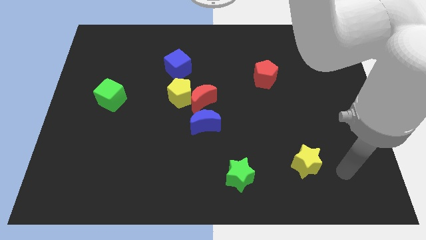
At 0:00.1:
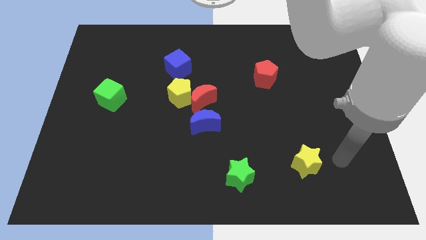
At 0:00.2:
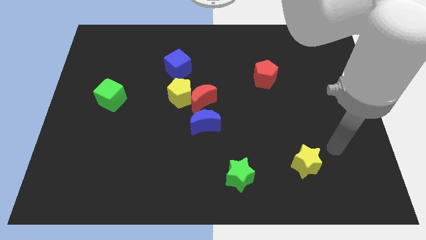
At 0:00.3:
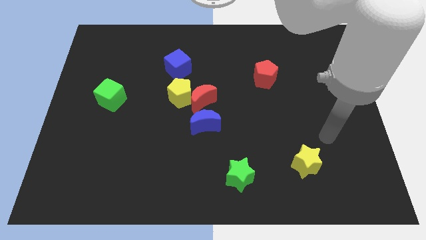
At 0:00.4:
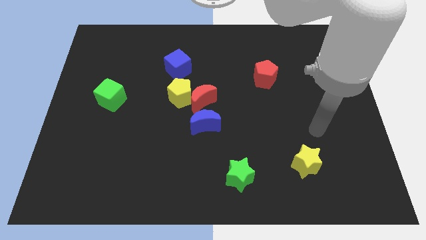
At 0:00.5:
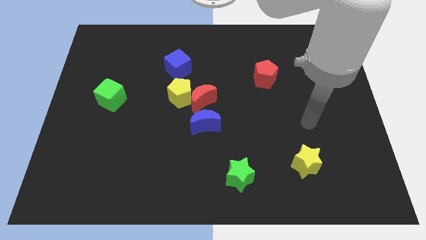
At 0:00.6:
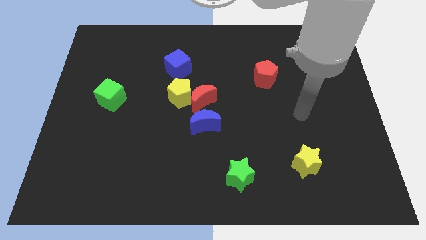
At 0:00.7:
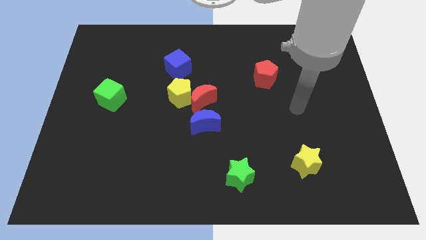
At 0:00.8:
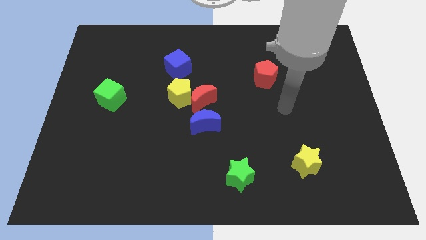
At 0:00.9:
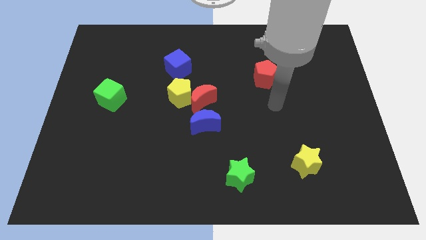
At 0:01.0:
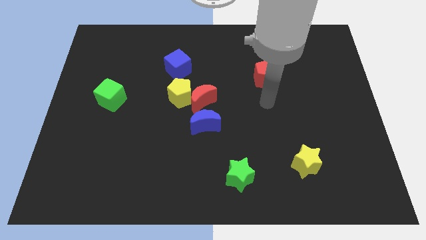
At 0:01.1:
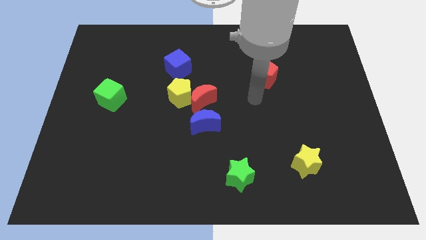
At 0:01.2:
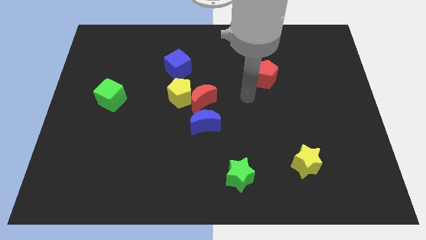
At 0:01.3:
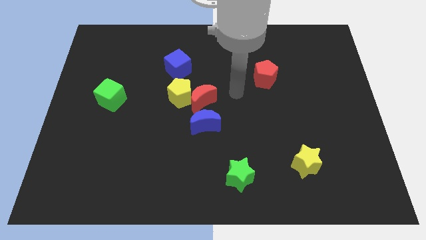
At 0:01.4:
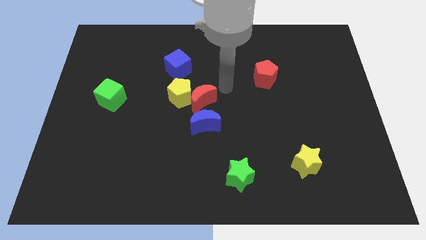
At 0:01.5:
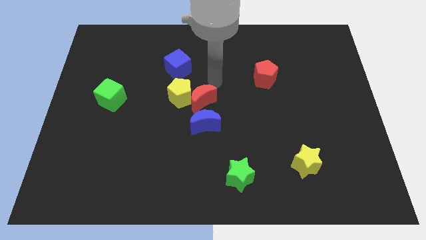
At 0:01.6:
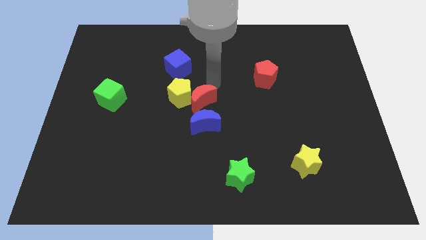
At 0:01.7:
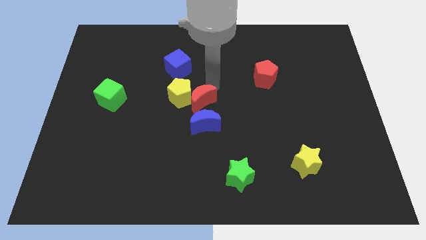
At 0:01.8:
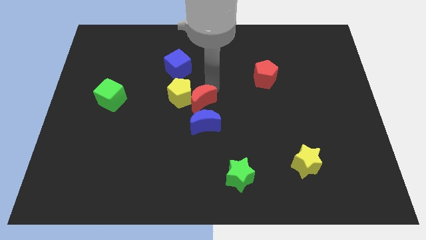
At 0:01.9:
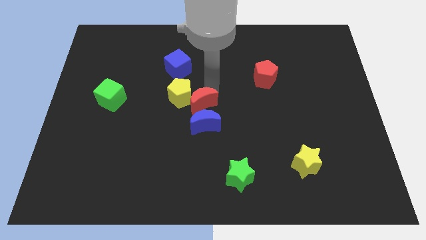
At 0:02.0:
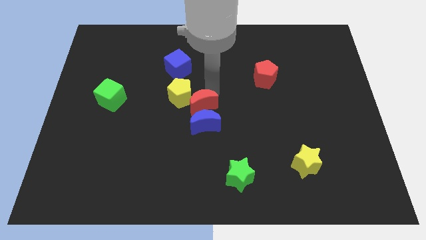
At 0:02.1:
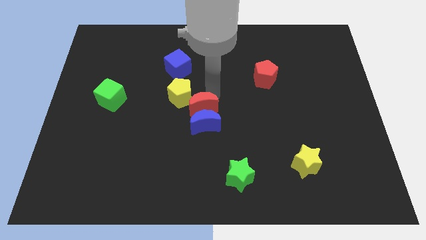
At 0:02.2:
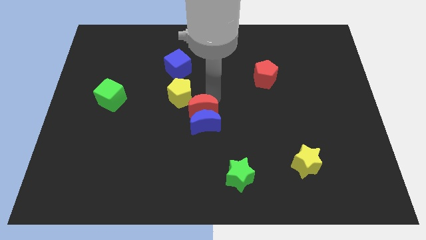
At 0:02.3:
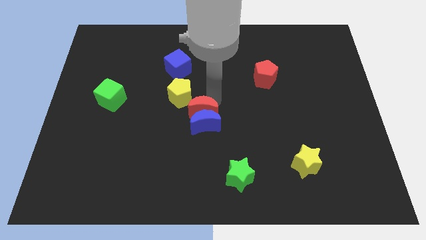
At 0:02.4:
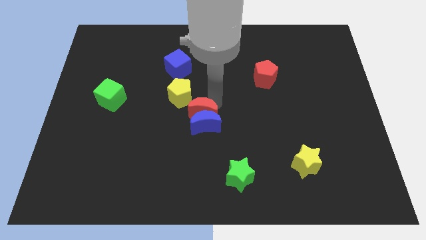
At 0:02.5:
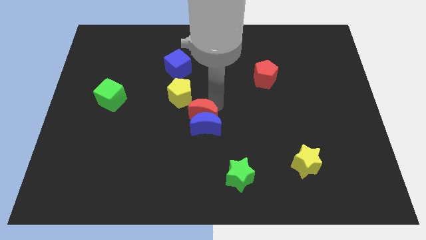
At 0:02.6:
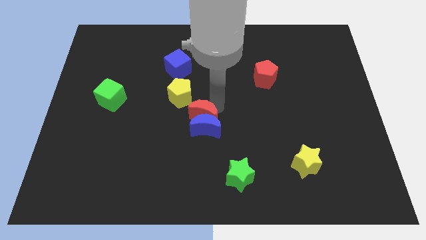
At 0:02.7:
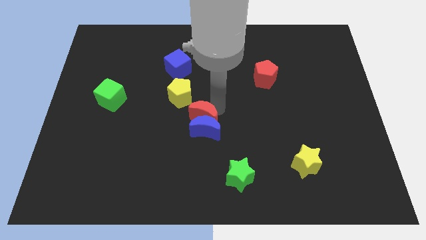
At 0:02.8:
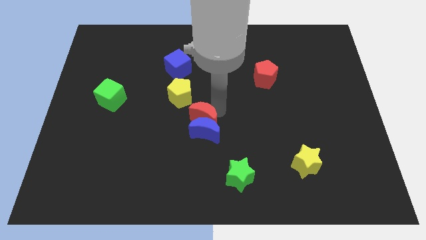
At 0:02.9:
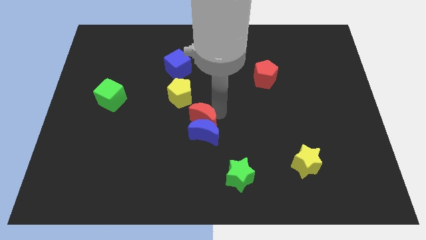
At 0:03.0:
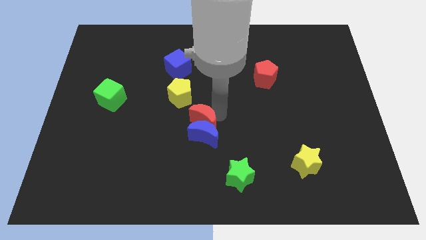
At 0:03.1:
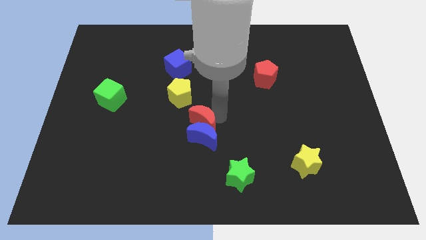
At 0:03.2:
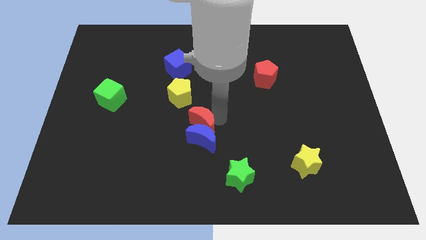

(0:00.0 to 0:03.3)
slide the red moon a little bit downwards

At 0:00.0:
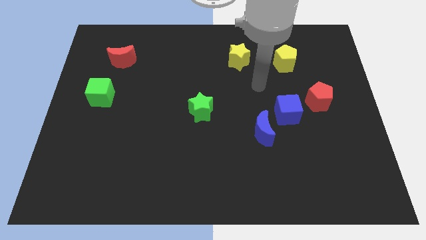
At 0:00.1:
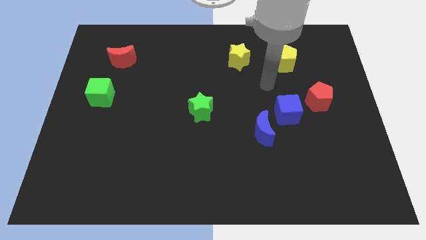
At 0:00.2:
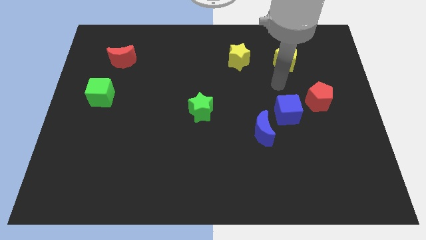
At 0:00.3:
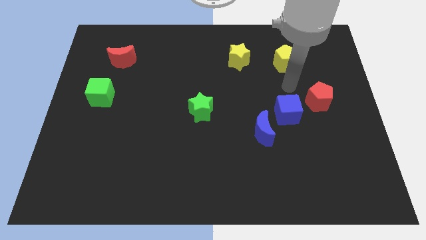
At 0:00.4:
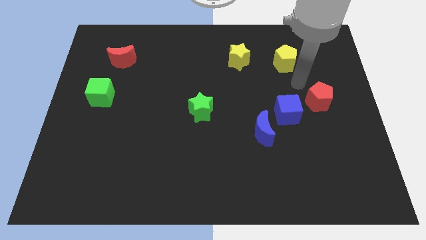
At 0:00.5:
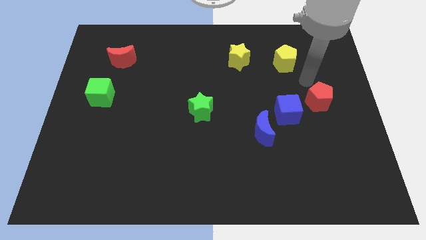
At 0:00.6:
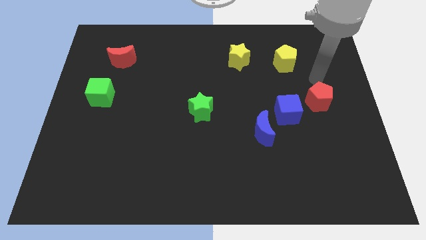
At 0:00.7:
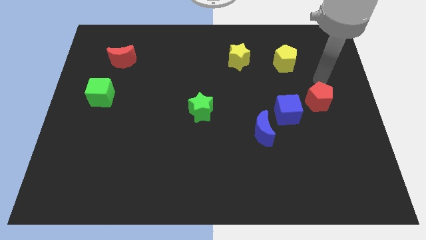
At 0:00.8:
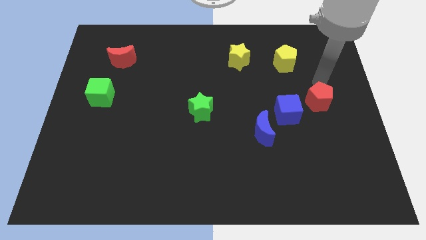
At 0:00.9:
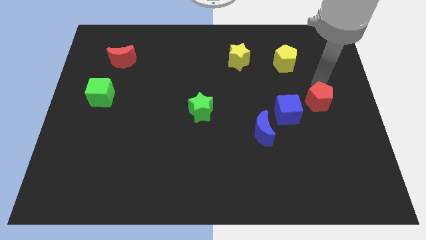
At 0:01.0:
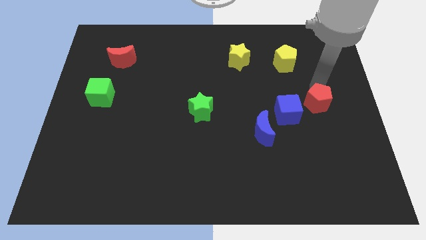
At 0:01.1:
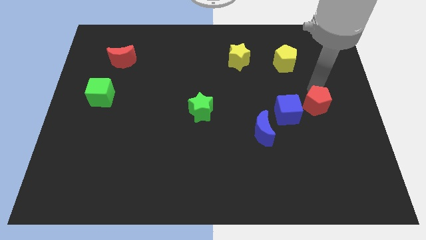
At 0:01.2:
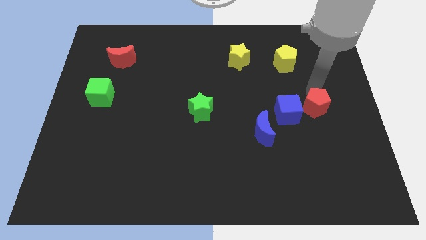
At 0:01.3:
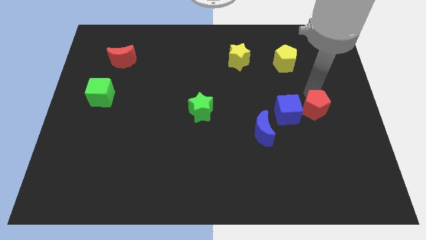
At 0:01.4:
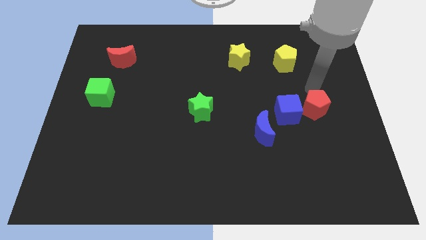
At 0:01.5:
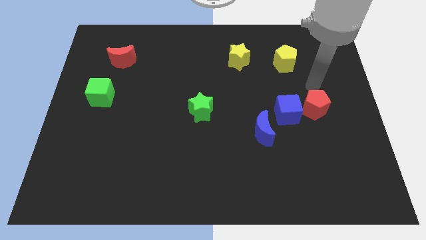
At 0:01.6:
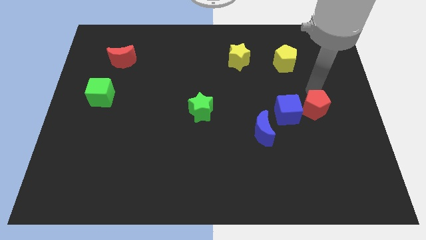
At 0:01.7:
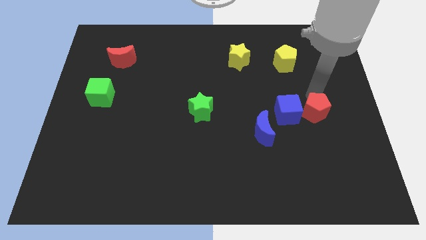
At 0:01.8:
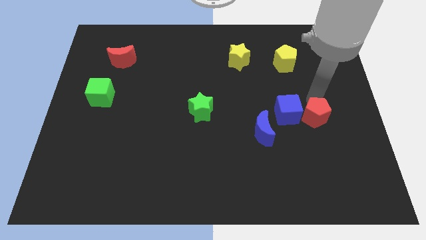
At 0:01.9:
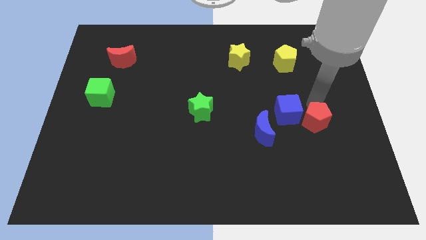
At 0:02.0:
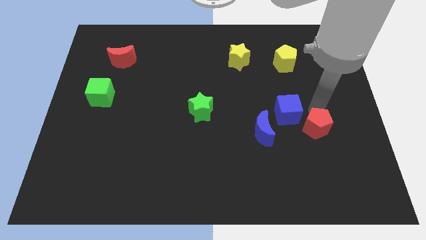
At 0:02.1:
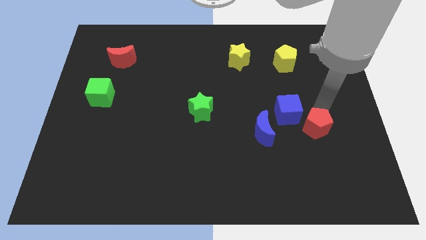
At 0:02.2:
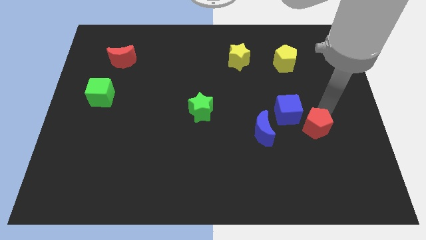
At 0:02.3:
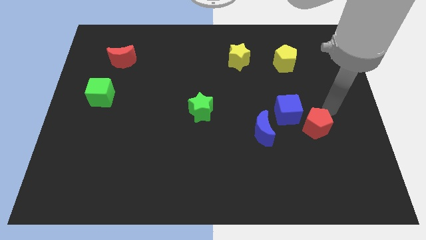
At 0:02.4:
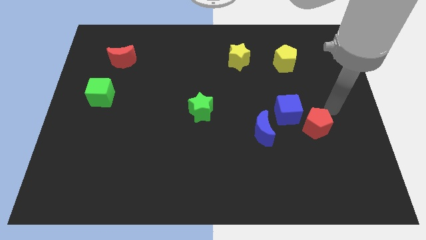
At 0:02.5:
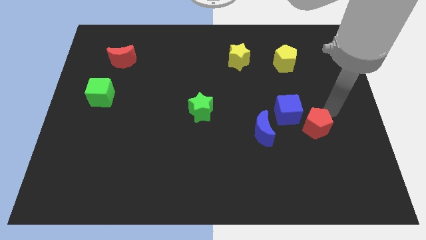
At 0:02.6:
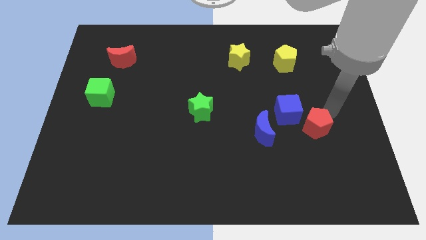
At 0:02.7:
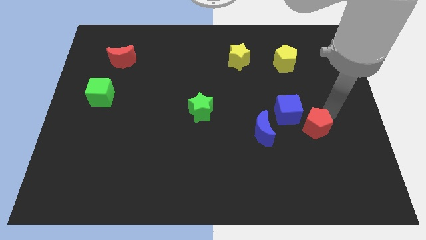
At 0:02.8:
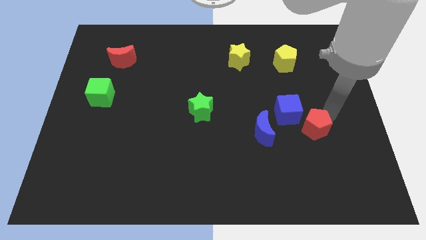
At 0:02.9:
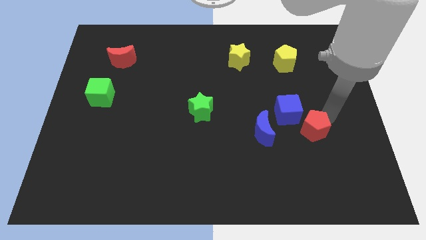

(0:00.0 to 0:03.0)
slide the red pentagon a bit down and to the left diagonally

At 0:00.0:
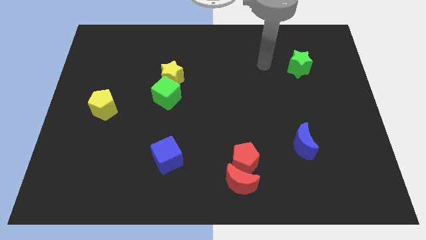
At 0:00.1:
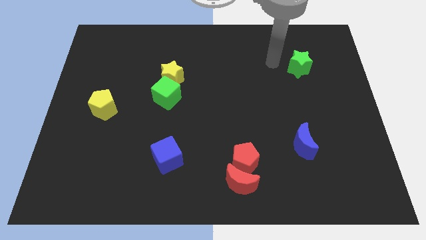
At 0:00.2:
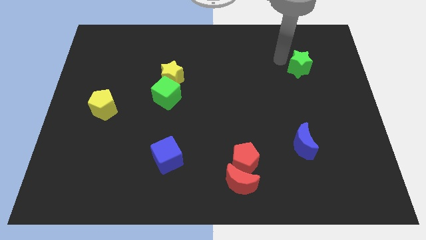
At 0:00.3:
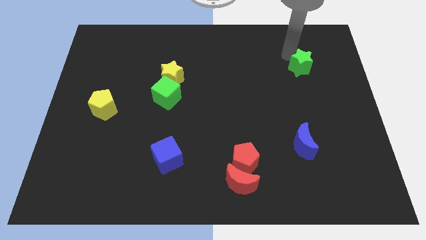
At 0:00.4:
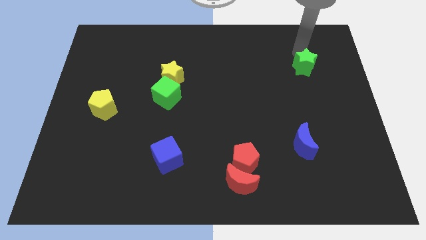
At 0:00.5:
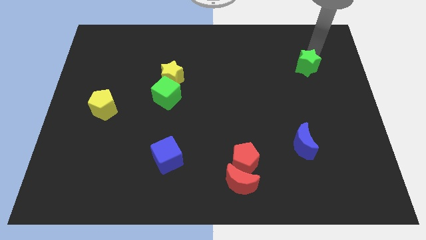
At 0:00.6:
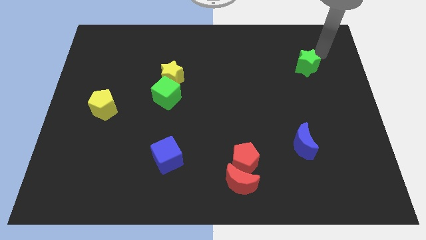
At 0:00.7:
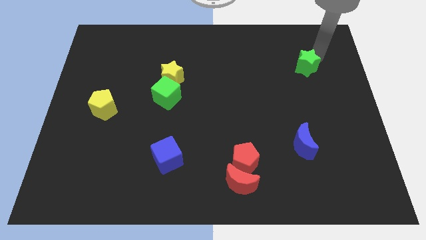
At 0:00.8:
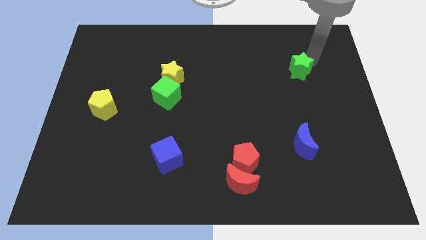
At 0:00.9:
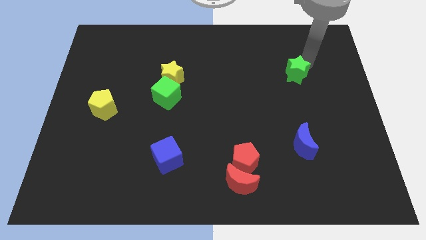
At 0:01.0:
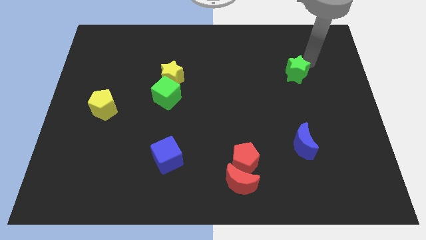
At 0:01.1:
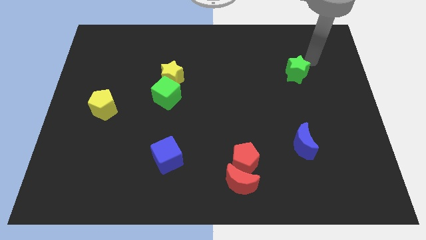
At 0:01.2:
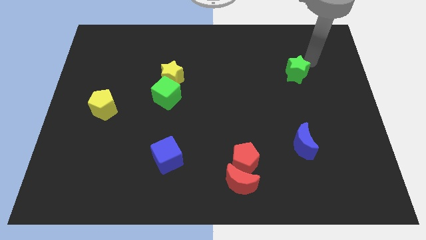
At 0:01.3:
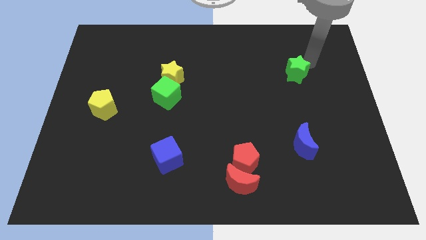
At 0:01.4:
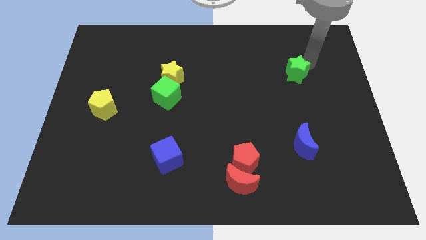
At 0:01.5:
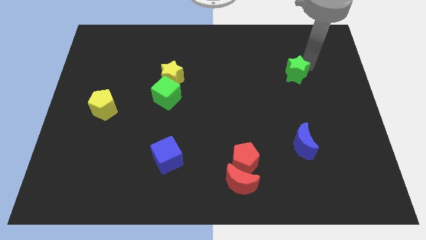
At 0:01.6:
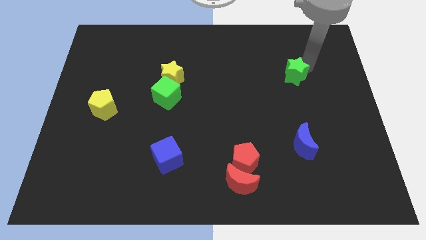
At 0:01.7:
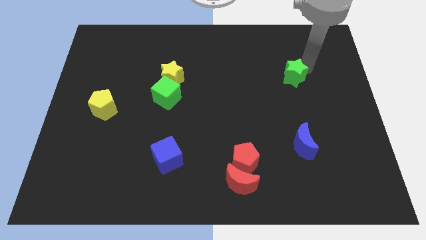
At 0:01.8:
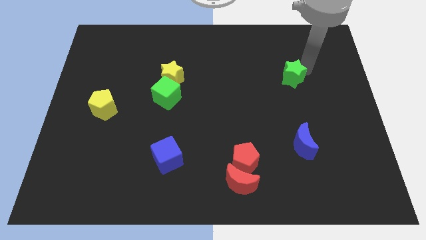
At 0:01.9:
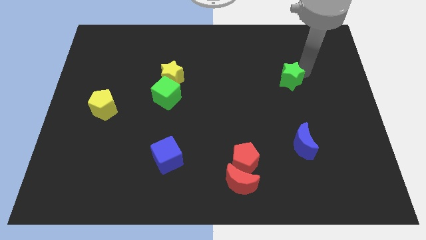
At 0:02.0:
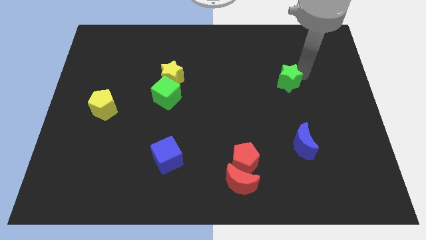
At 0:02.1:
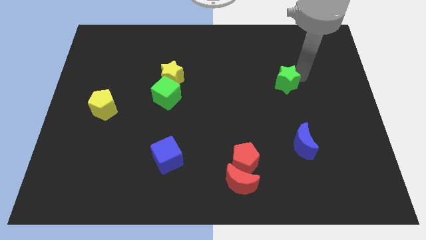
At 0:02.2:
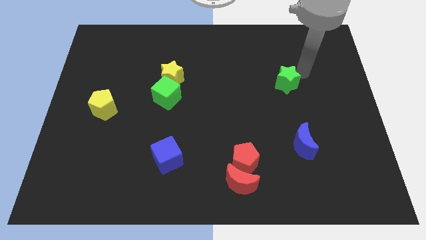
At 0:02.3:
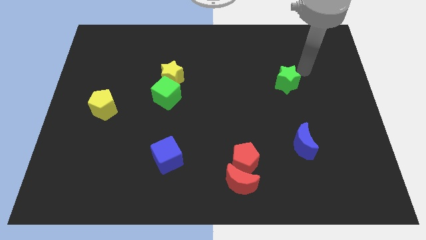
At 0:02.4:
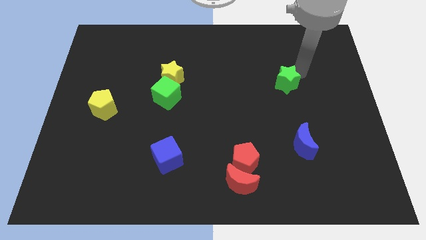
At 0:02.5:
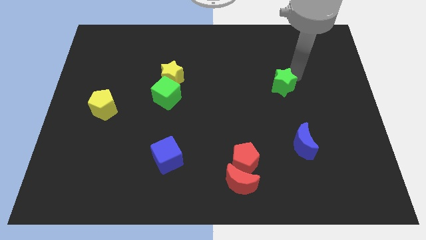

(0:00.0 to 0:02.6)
slide the green star diagonally down and left slightly
